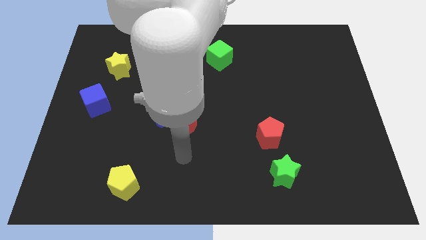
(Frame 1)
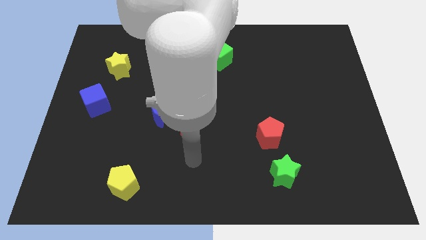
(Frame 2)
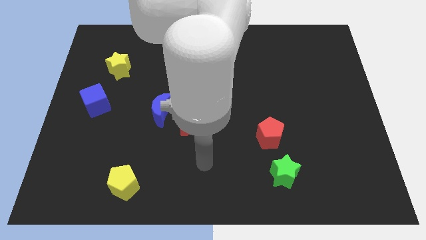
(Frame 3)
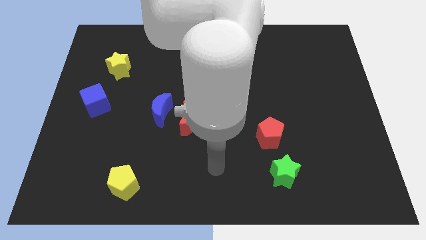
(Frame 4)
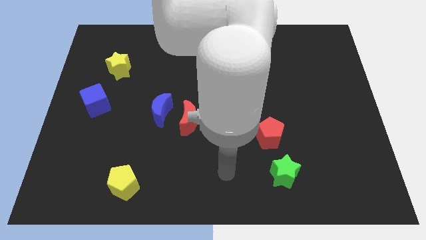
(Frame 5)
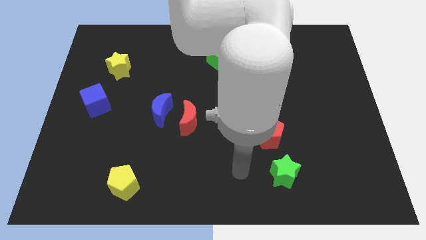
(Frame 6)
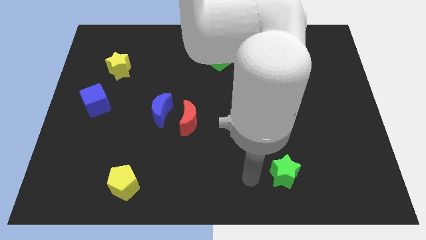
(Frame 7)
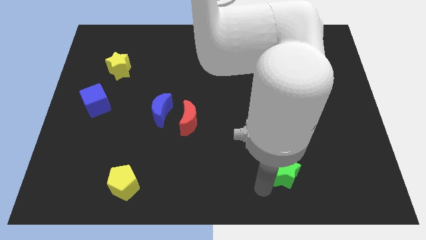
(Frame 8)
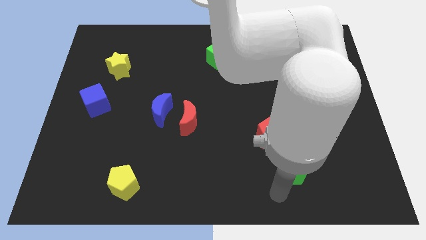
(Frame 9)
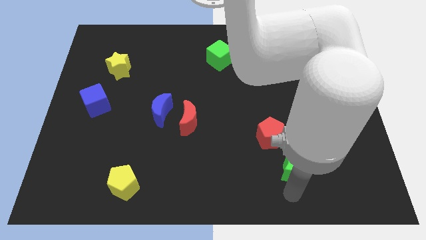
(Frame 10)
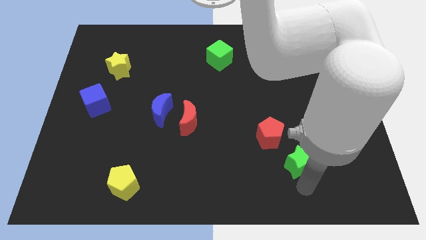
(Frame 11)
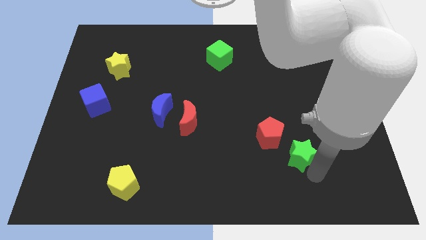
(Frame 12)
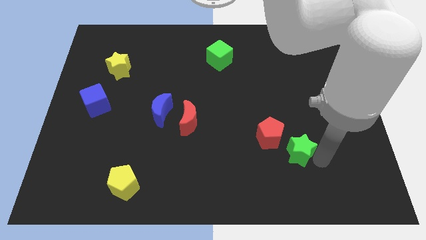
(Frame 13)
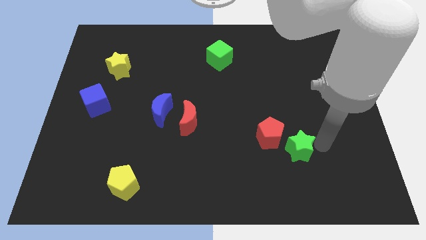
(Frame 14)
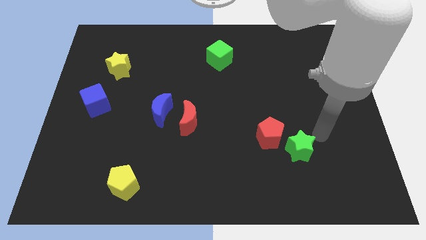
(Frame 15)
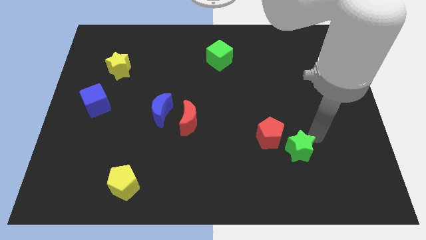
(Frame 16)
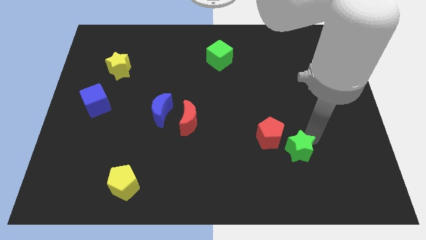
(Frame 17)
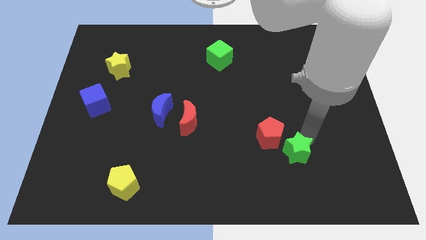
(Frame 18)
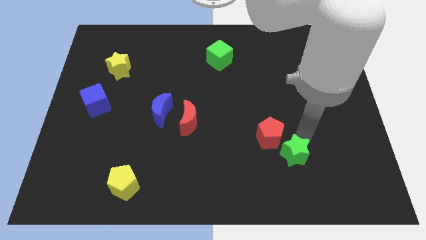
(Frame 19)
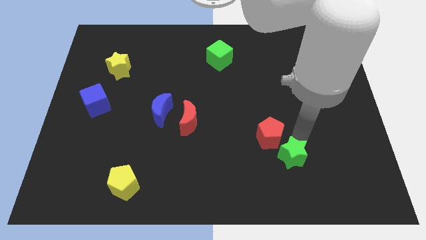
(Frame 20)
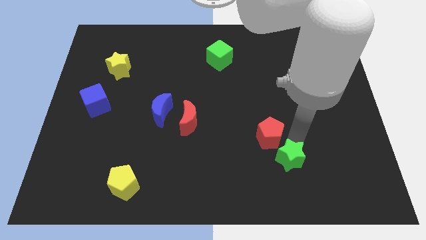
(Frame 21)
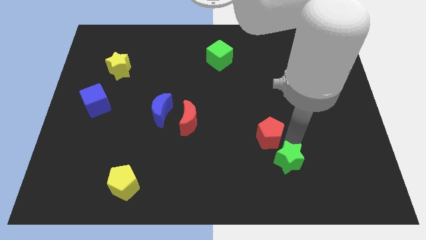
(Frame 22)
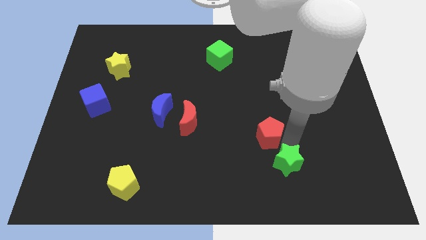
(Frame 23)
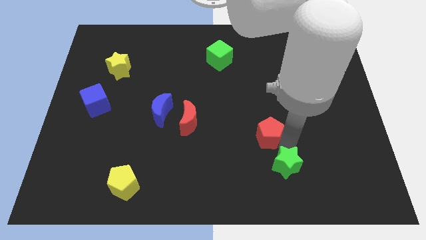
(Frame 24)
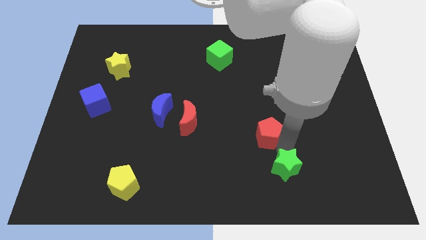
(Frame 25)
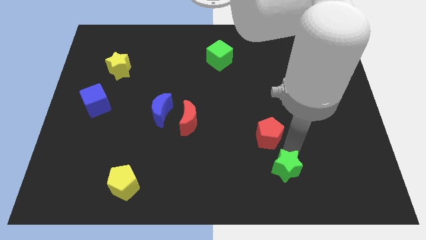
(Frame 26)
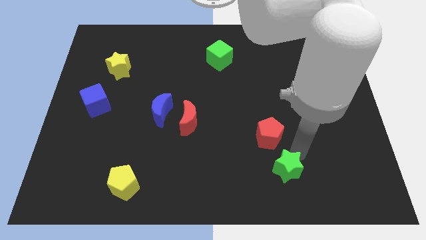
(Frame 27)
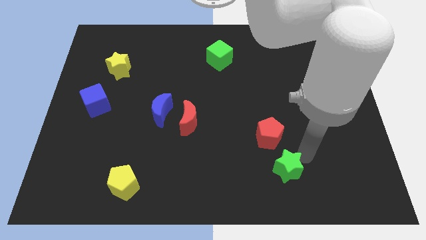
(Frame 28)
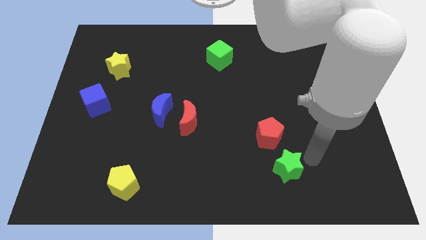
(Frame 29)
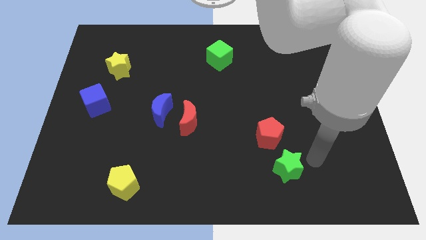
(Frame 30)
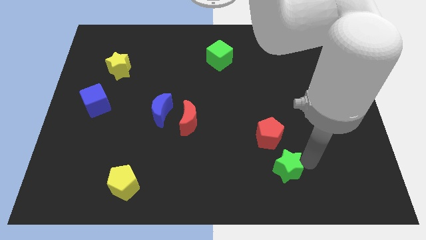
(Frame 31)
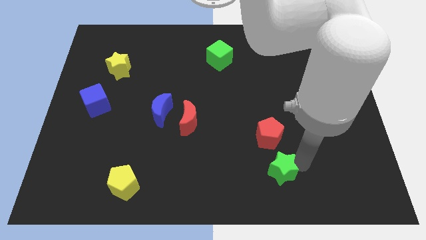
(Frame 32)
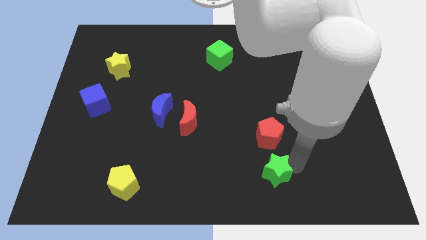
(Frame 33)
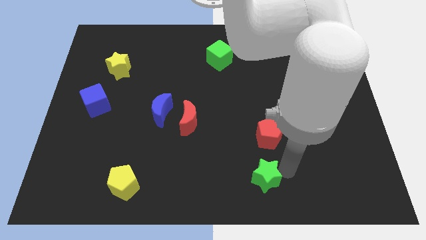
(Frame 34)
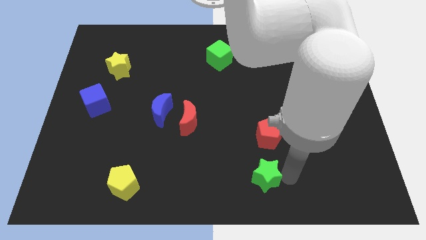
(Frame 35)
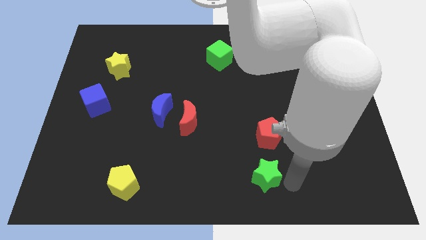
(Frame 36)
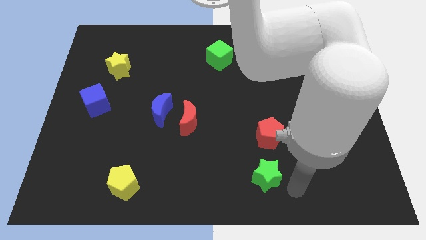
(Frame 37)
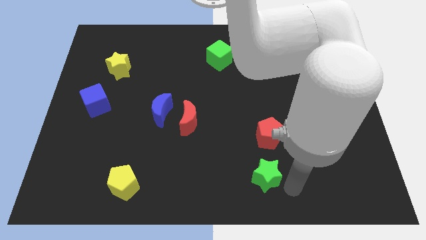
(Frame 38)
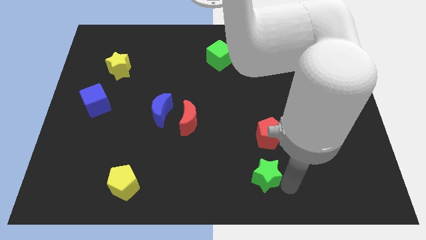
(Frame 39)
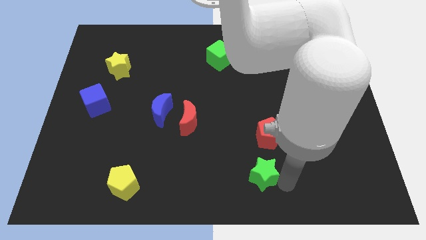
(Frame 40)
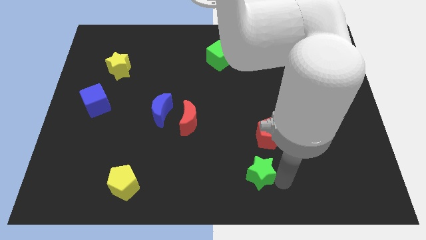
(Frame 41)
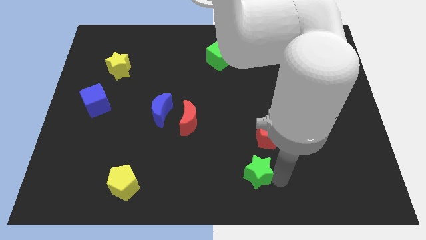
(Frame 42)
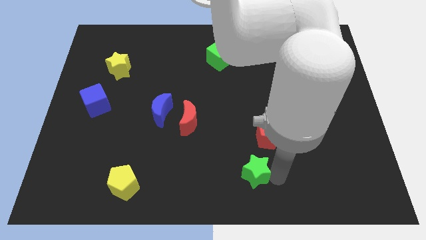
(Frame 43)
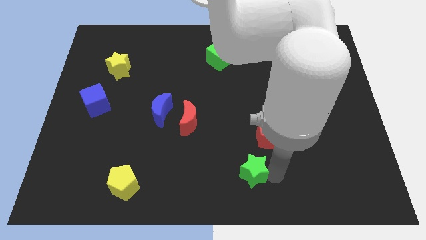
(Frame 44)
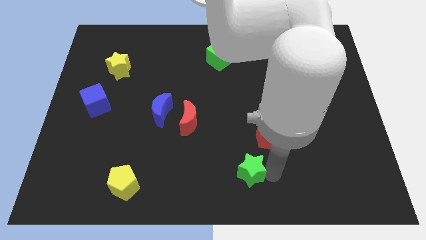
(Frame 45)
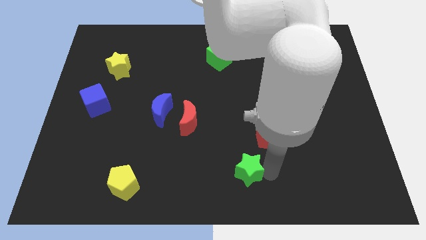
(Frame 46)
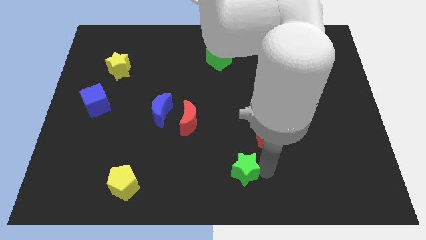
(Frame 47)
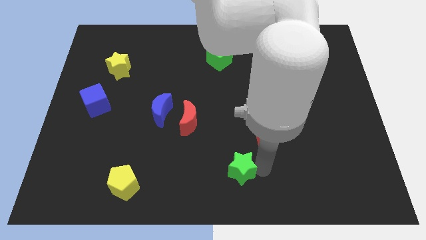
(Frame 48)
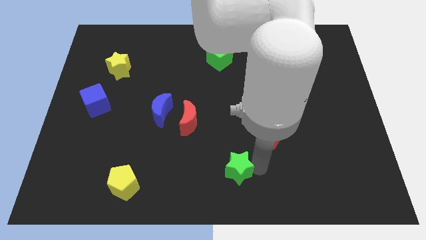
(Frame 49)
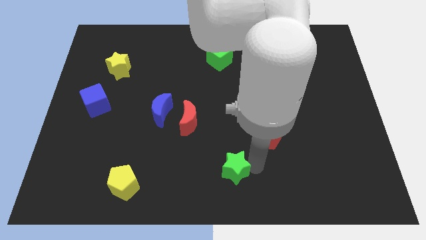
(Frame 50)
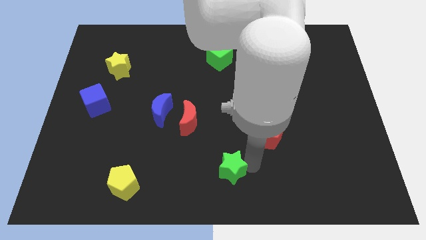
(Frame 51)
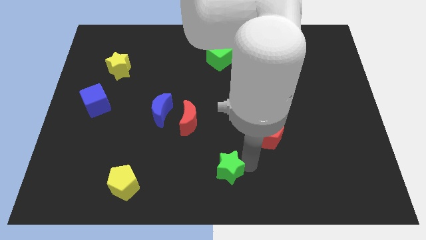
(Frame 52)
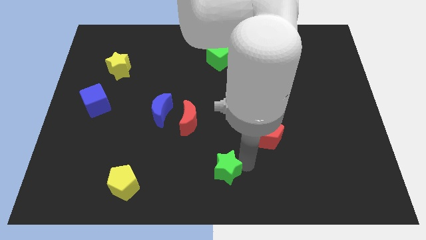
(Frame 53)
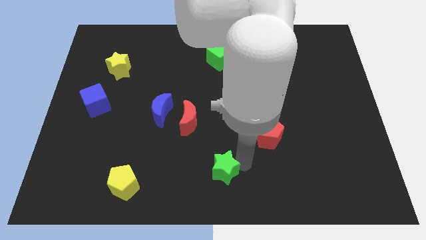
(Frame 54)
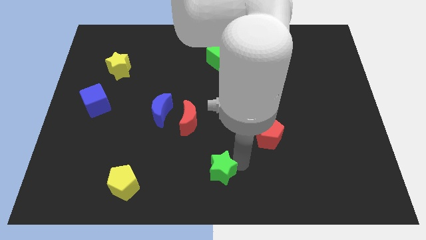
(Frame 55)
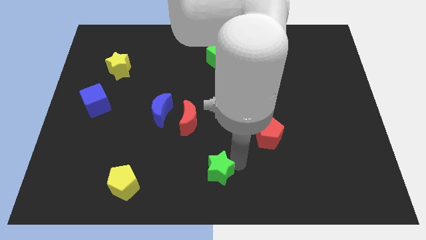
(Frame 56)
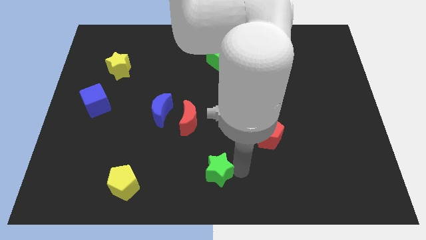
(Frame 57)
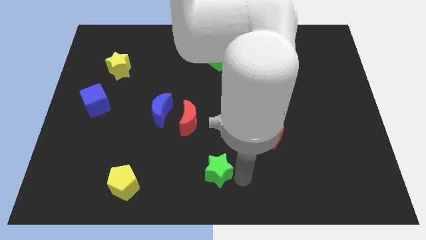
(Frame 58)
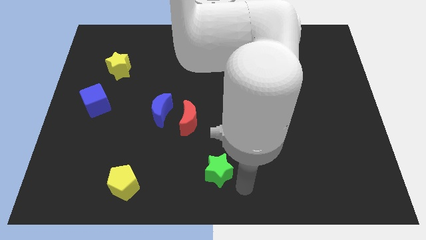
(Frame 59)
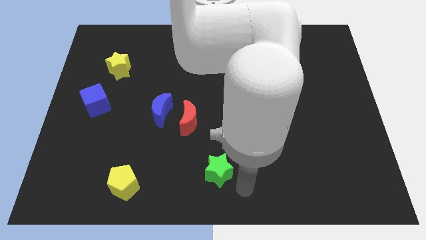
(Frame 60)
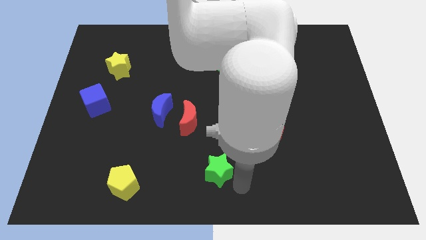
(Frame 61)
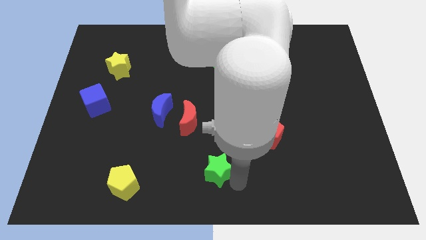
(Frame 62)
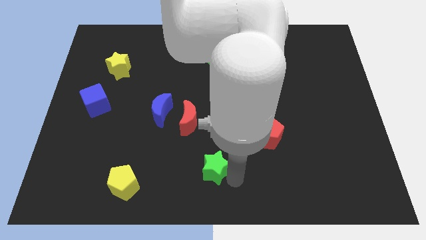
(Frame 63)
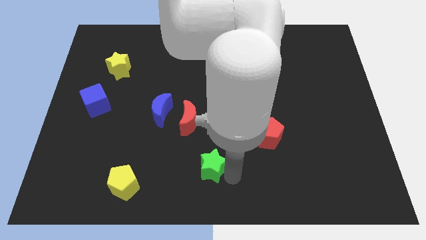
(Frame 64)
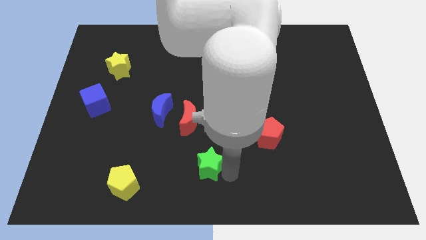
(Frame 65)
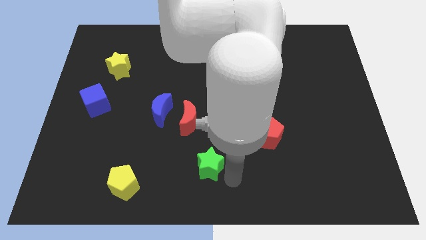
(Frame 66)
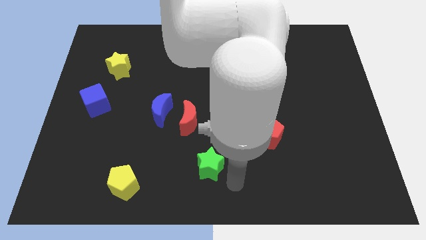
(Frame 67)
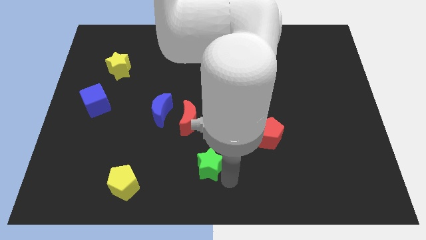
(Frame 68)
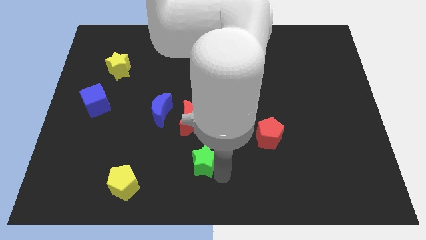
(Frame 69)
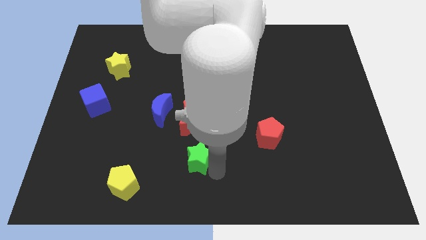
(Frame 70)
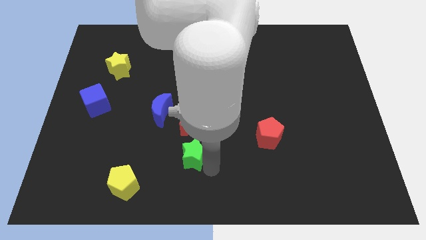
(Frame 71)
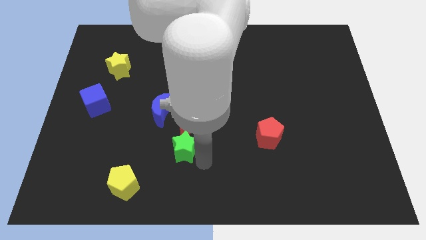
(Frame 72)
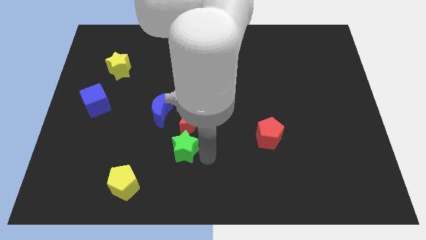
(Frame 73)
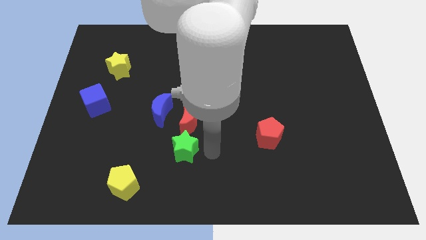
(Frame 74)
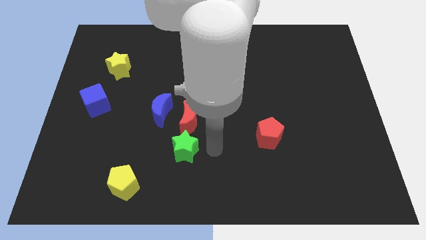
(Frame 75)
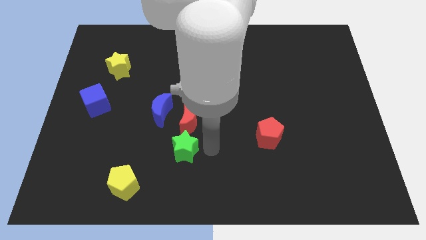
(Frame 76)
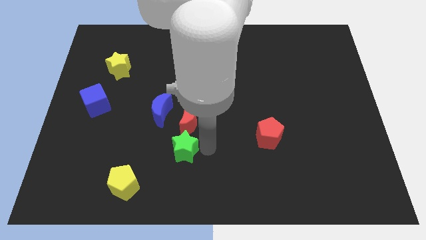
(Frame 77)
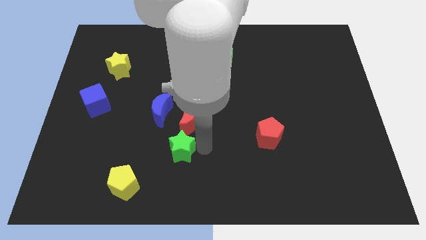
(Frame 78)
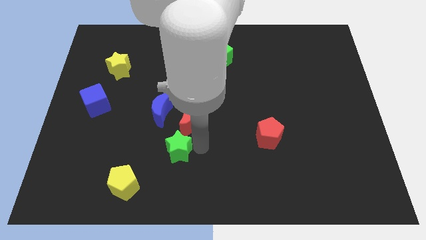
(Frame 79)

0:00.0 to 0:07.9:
move the green star to the bottom side of the blue moon
